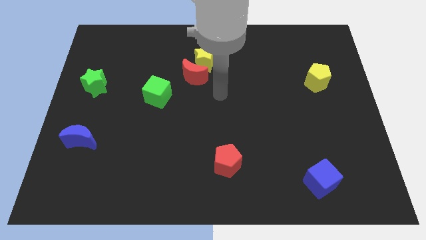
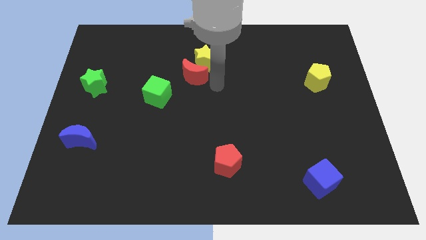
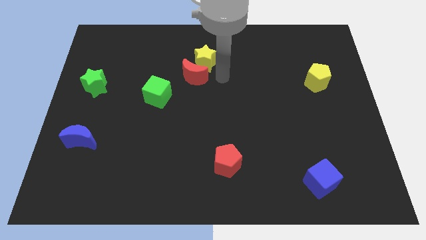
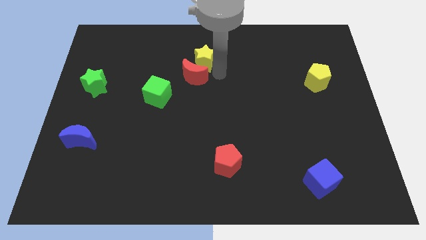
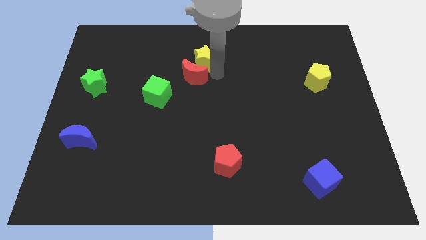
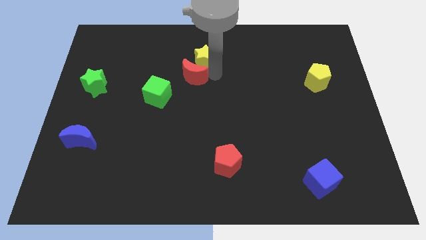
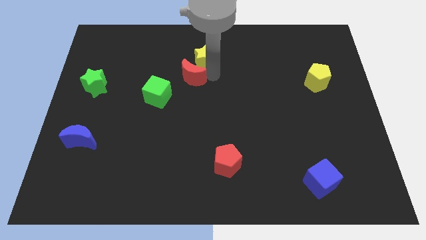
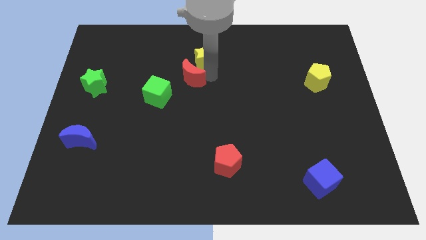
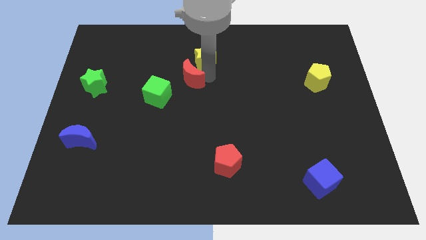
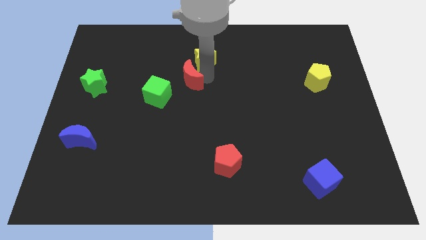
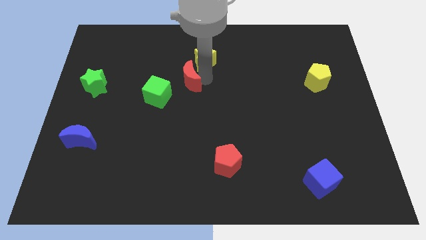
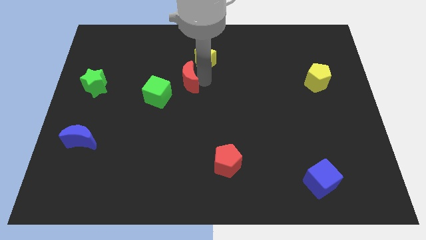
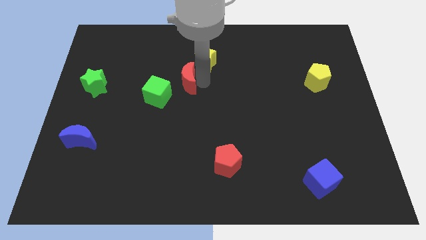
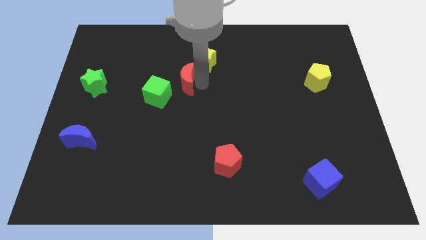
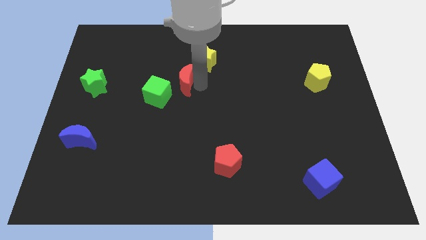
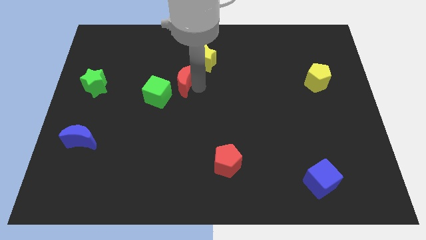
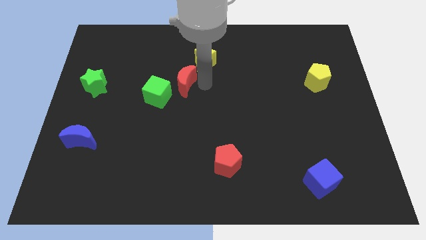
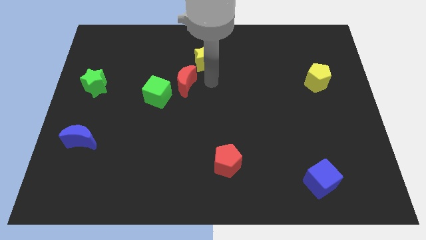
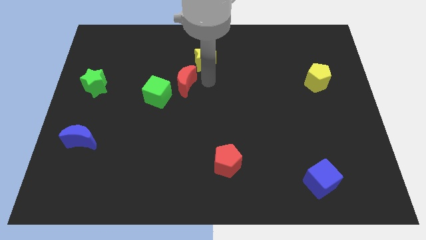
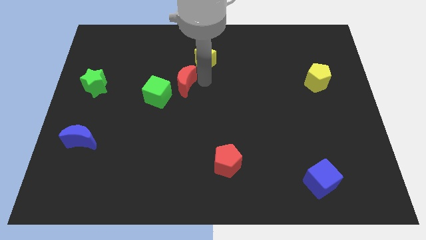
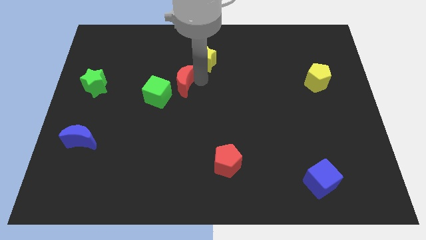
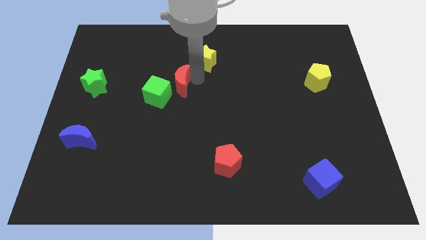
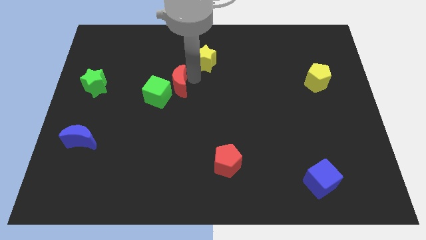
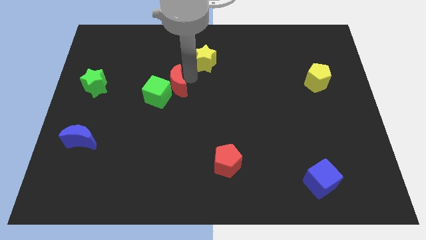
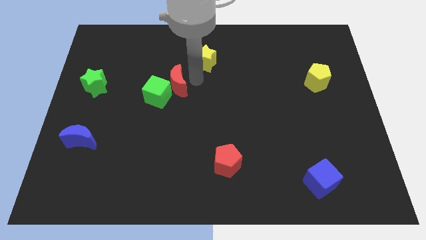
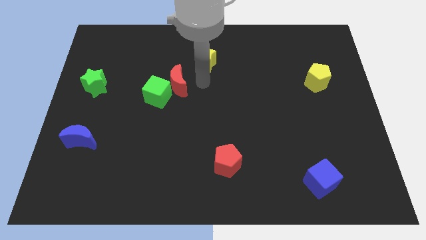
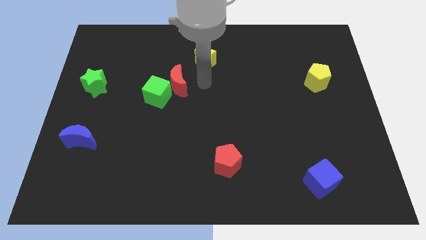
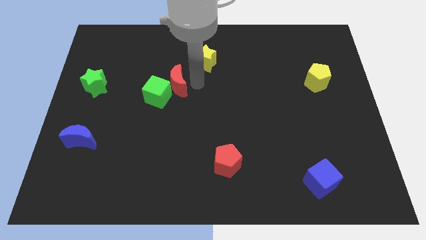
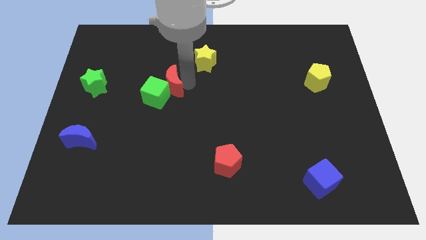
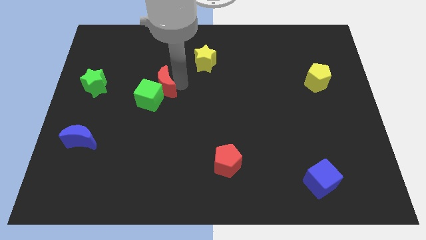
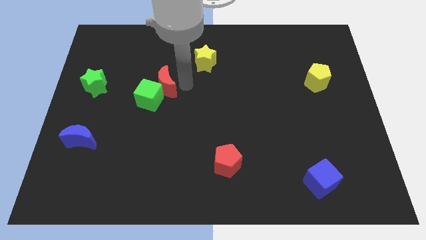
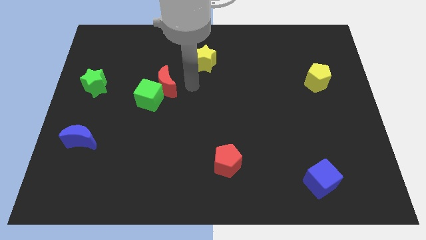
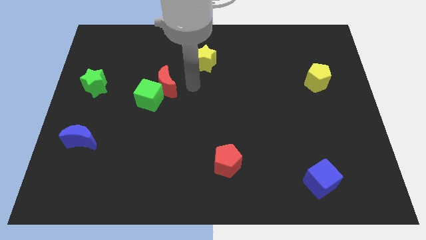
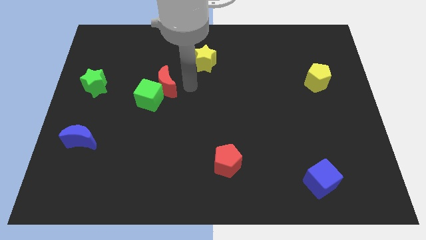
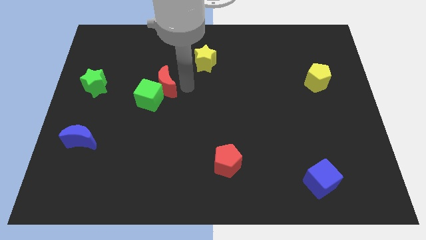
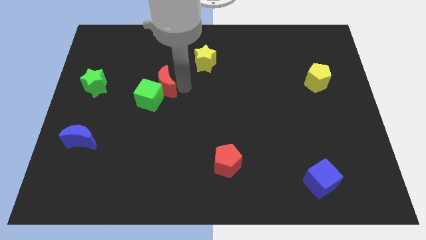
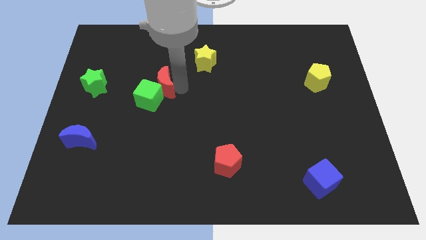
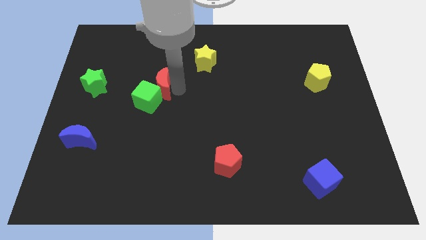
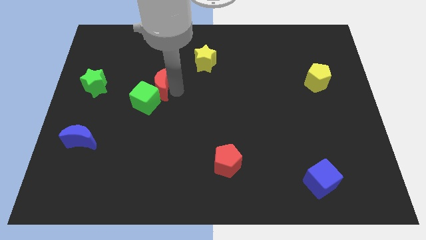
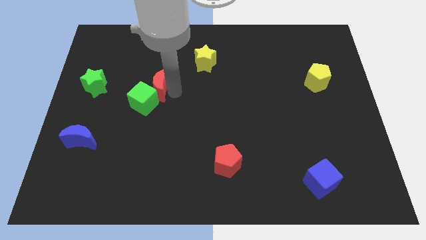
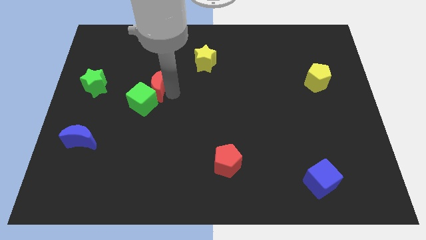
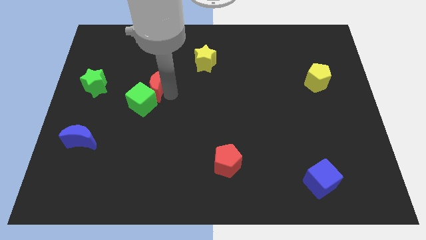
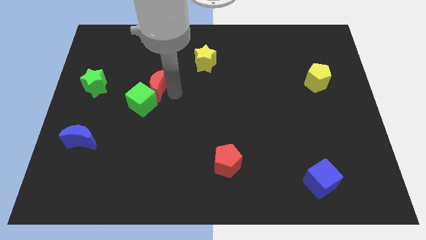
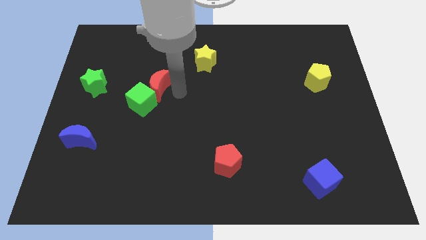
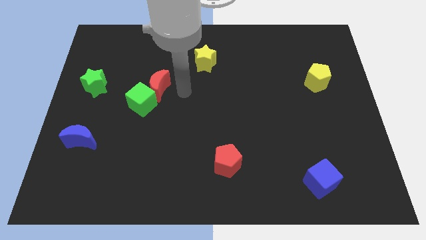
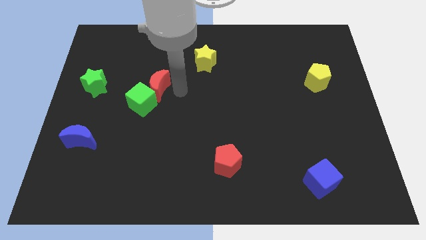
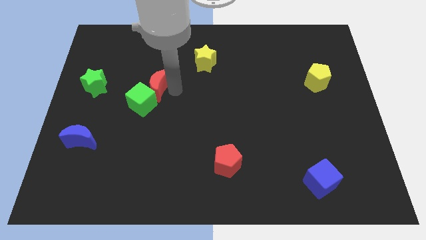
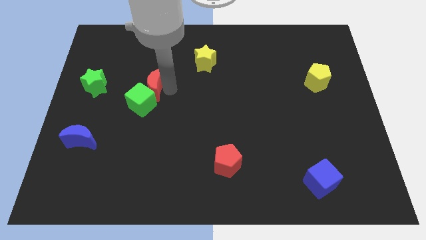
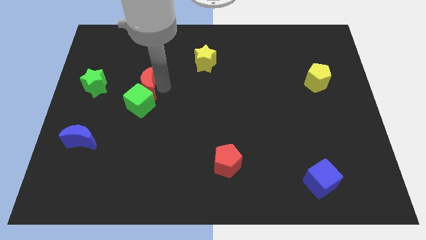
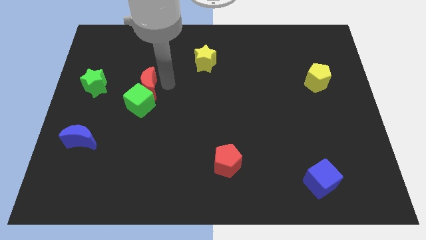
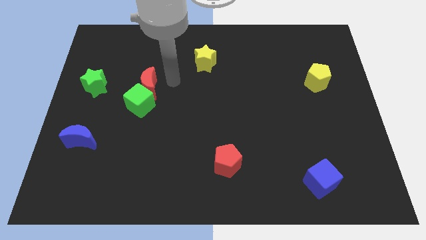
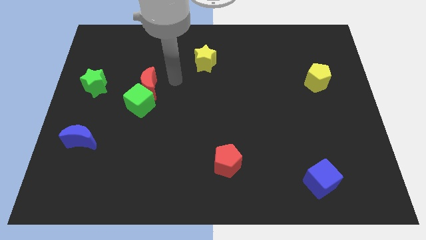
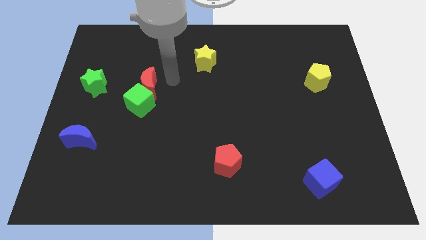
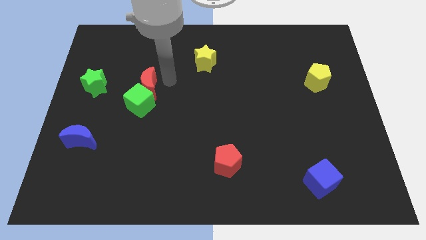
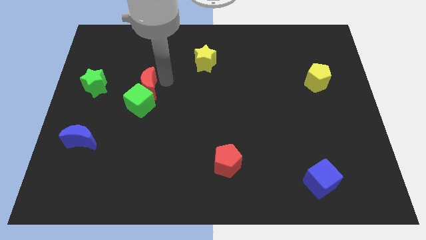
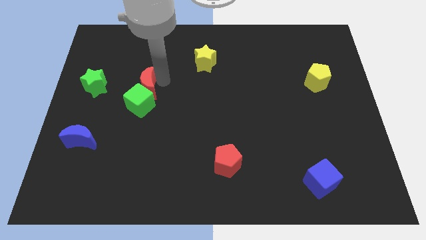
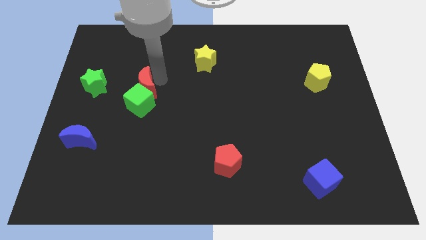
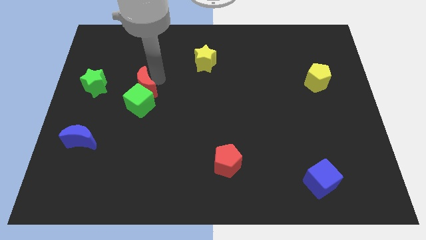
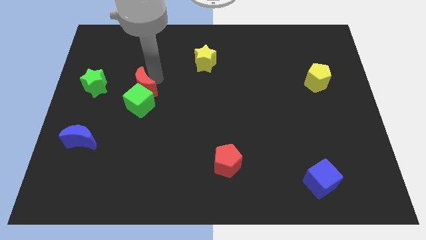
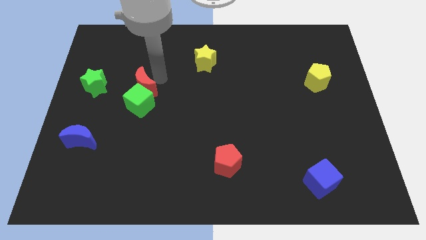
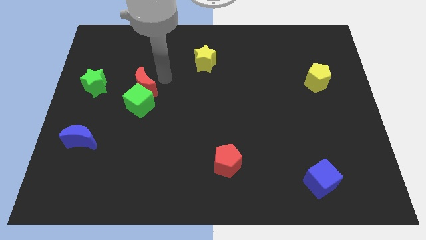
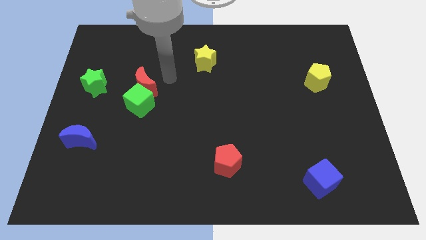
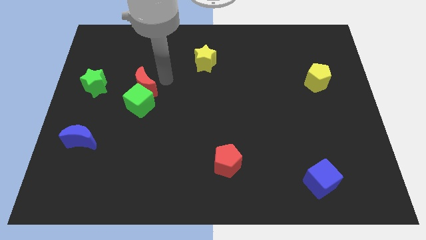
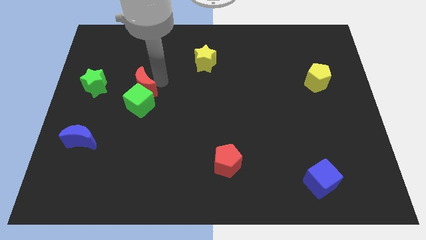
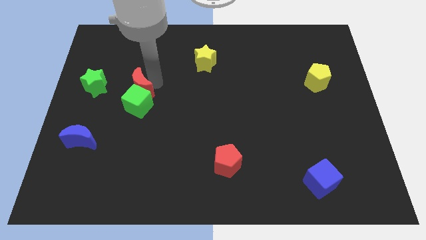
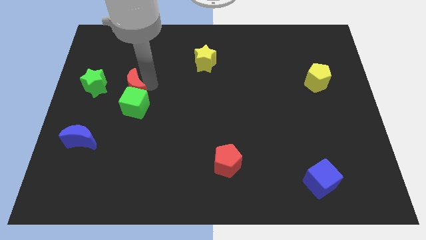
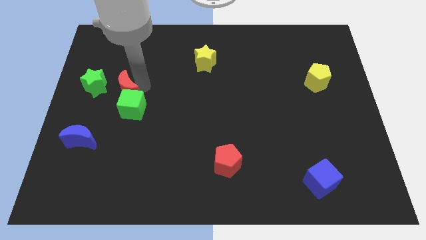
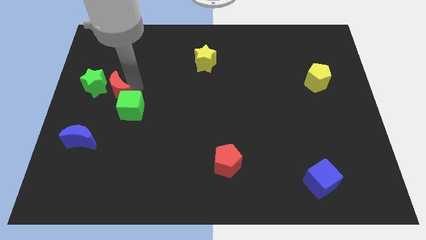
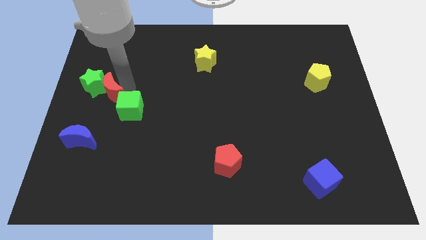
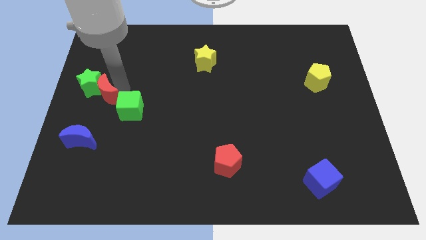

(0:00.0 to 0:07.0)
slide the red moon to the center left
